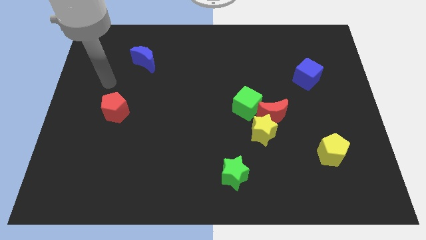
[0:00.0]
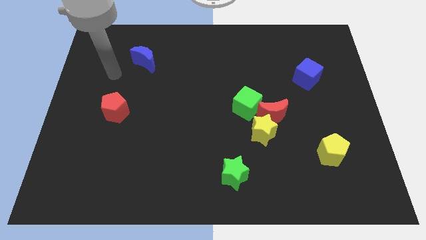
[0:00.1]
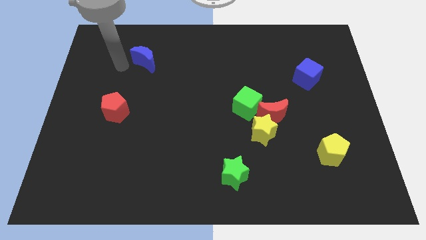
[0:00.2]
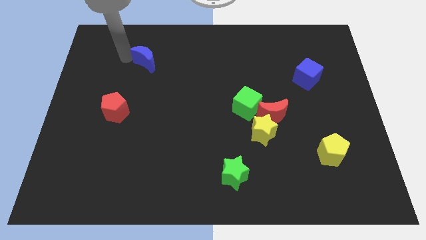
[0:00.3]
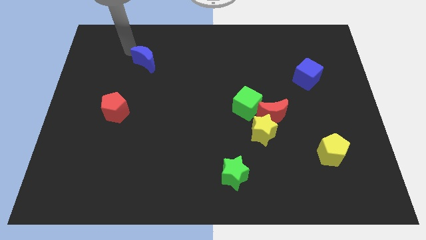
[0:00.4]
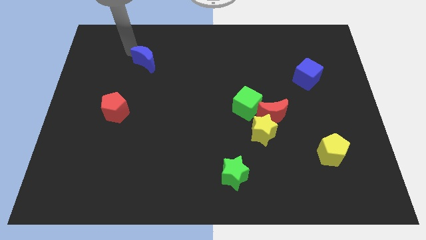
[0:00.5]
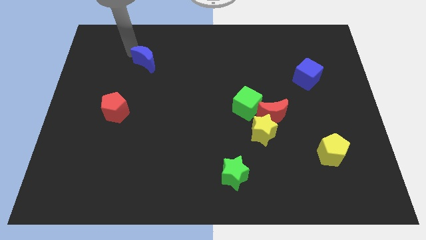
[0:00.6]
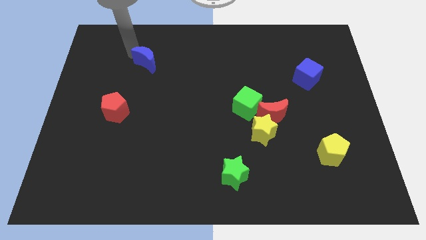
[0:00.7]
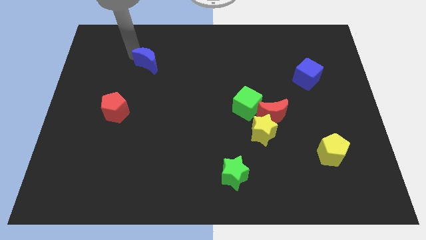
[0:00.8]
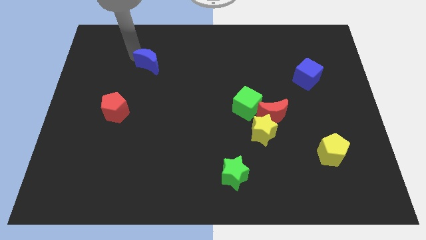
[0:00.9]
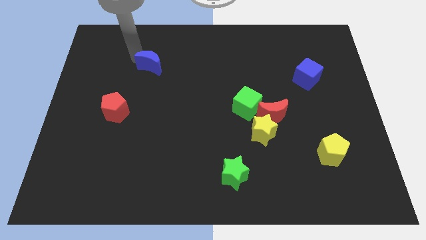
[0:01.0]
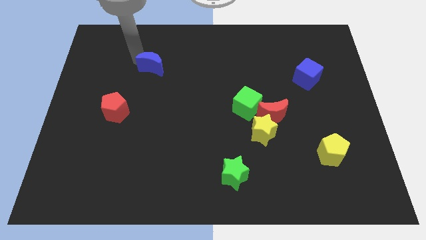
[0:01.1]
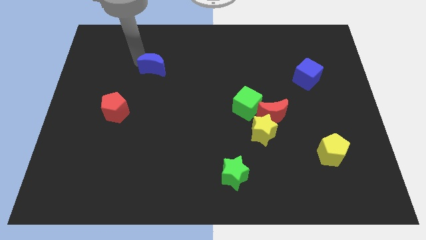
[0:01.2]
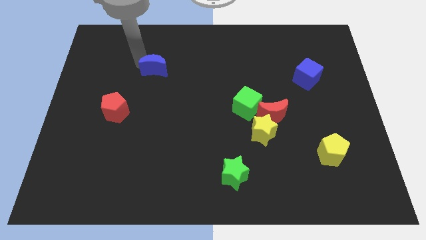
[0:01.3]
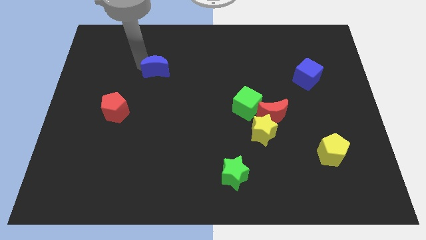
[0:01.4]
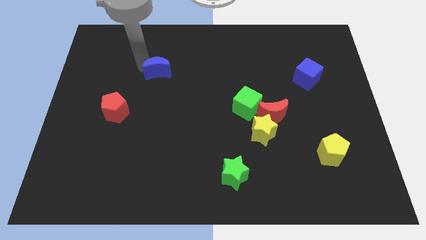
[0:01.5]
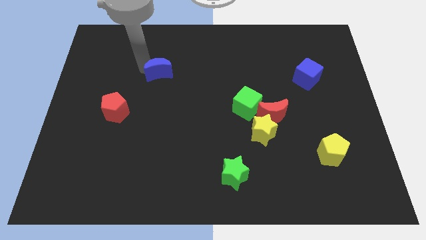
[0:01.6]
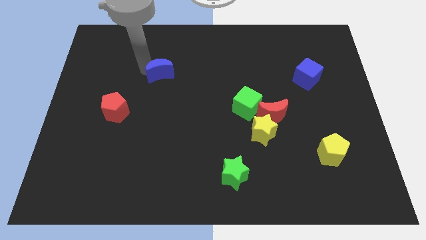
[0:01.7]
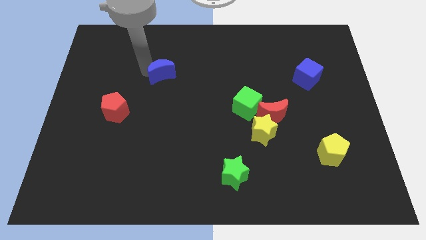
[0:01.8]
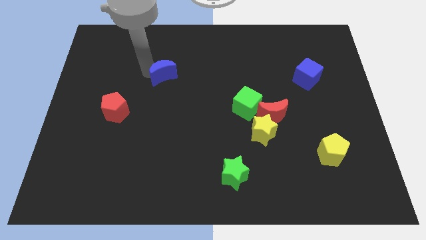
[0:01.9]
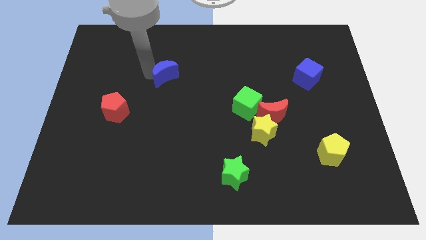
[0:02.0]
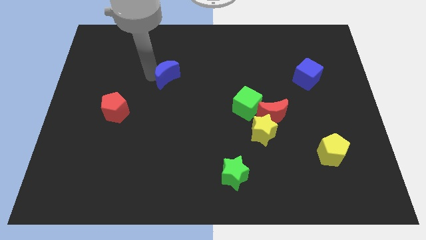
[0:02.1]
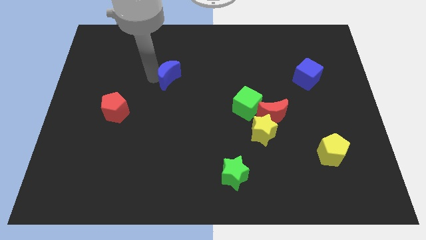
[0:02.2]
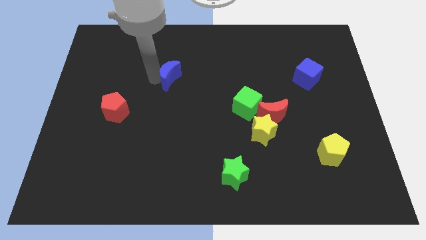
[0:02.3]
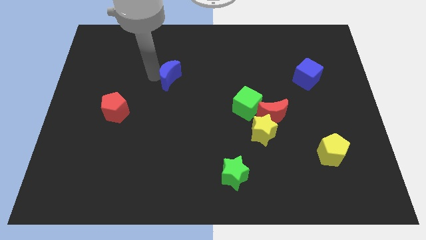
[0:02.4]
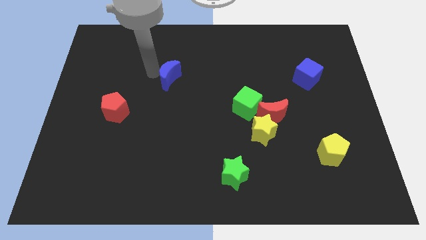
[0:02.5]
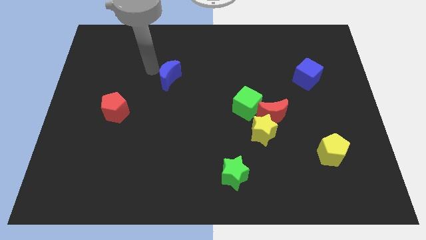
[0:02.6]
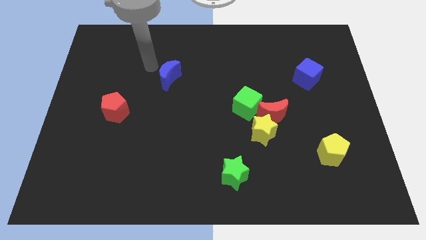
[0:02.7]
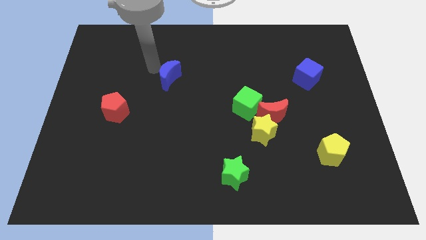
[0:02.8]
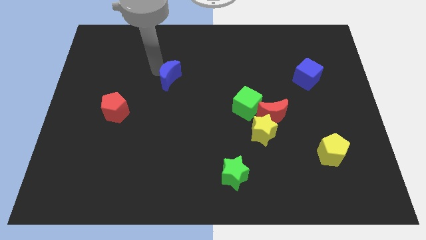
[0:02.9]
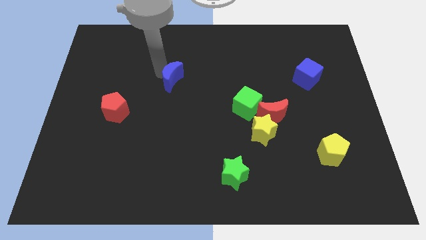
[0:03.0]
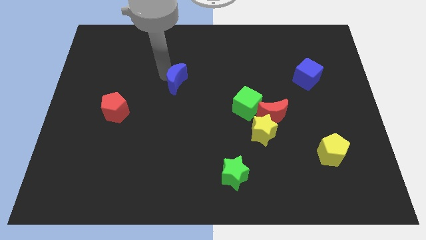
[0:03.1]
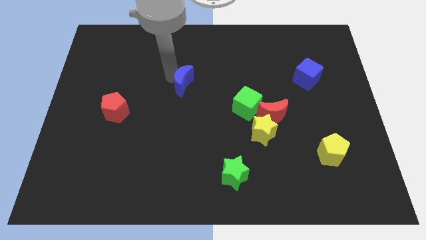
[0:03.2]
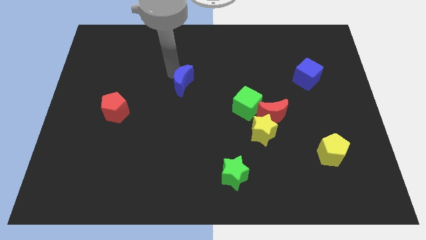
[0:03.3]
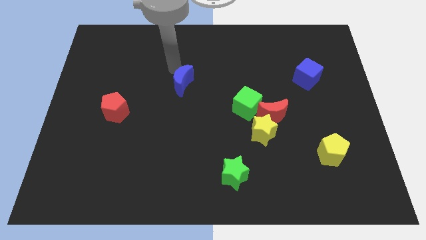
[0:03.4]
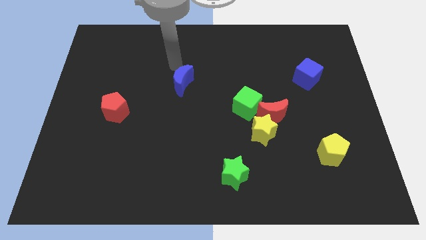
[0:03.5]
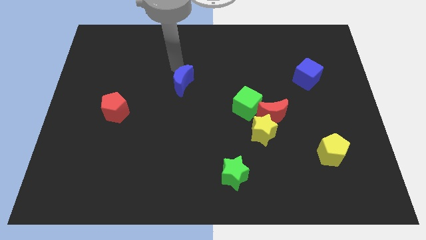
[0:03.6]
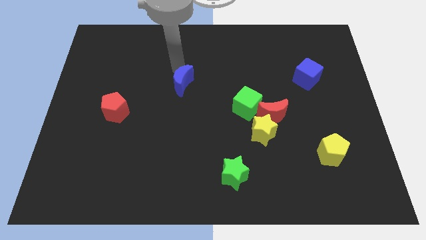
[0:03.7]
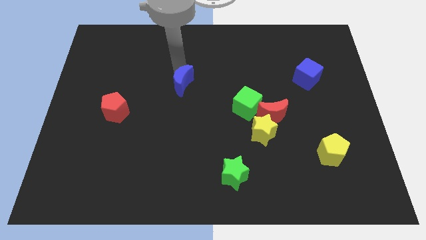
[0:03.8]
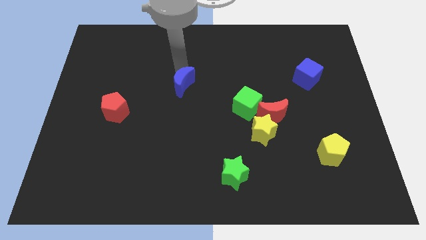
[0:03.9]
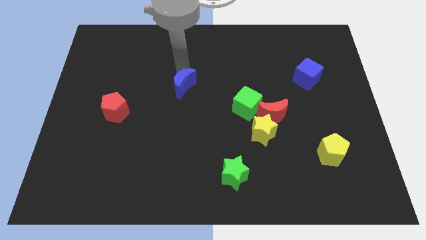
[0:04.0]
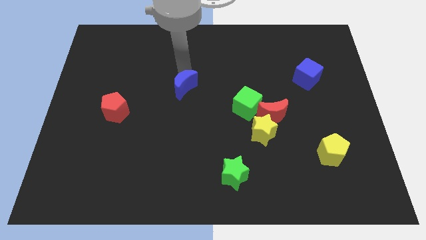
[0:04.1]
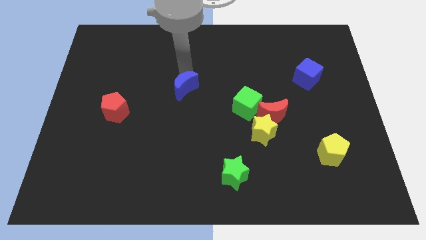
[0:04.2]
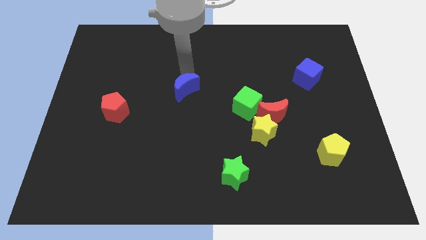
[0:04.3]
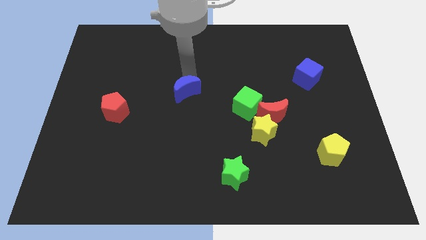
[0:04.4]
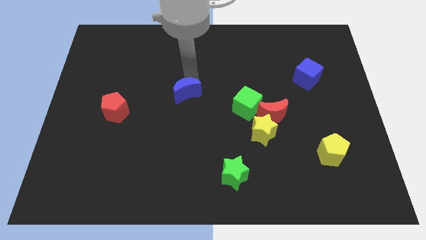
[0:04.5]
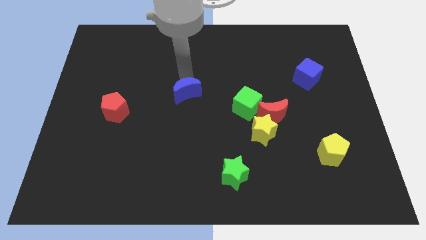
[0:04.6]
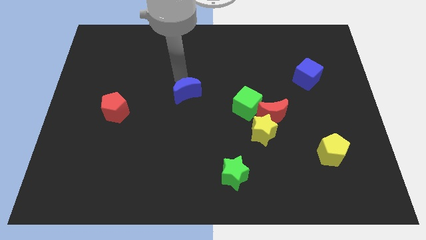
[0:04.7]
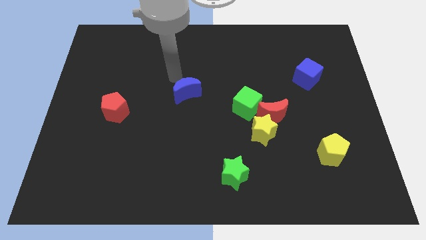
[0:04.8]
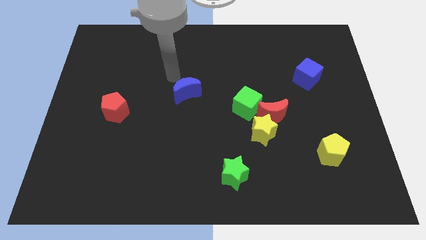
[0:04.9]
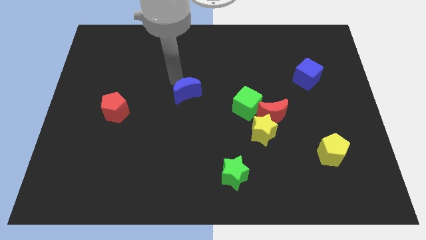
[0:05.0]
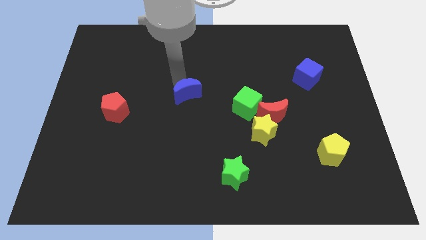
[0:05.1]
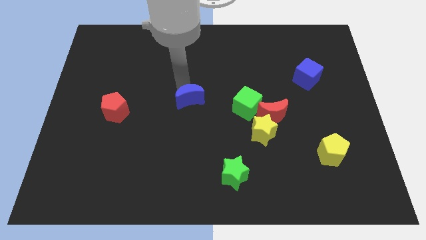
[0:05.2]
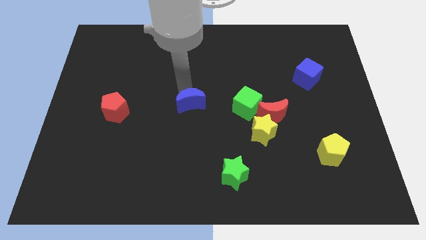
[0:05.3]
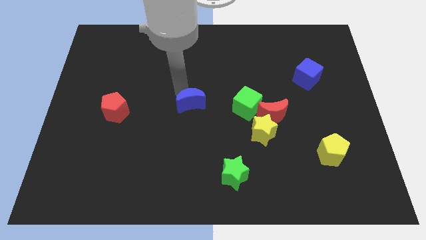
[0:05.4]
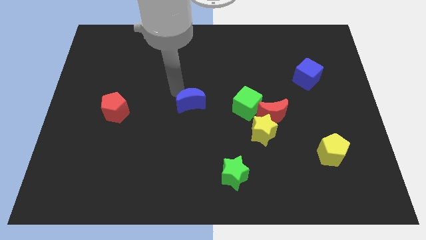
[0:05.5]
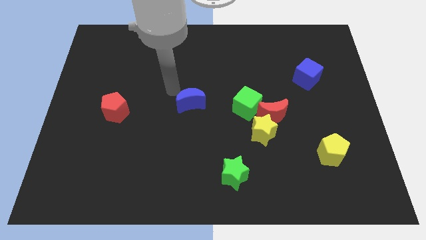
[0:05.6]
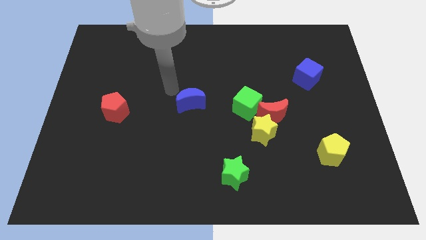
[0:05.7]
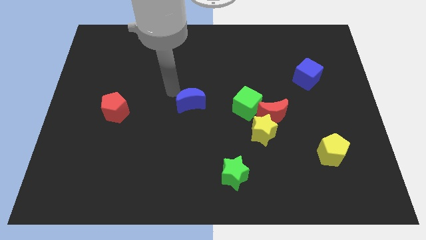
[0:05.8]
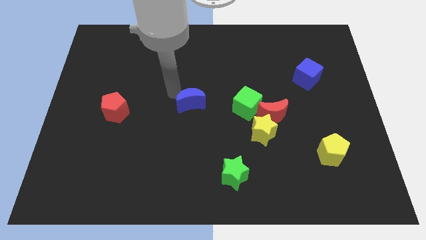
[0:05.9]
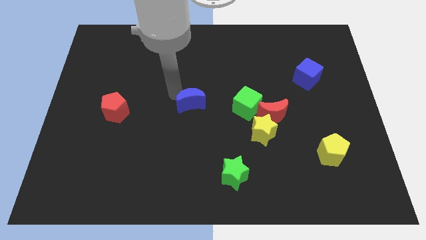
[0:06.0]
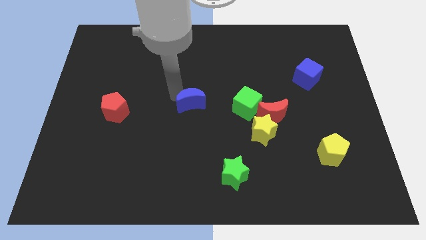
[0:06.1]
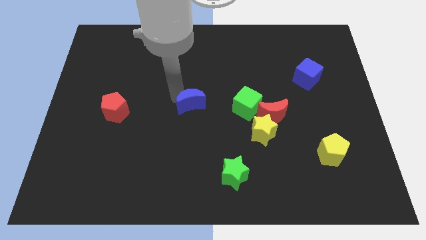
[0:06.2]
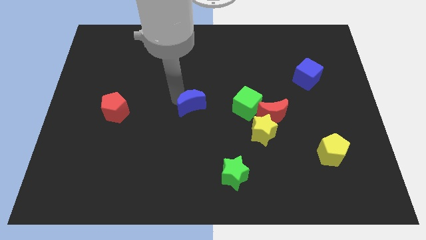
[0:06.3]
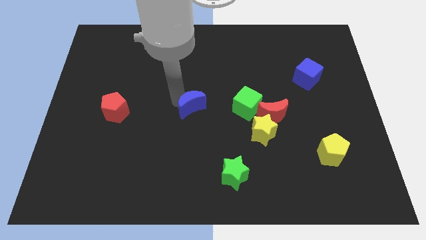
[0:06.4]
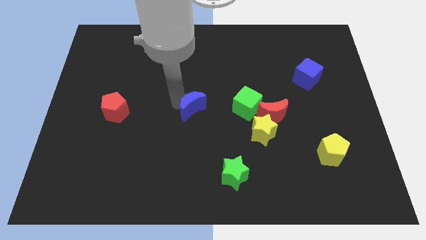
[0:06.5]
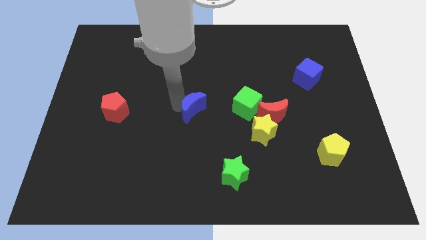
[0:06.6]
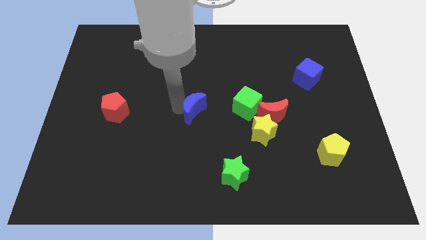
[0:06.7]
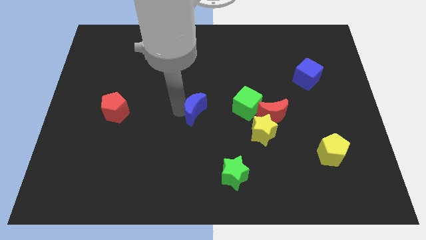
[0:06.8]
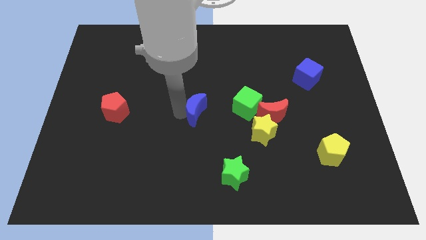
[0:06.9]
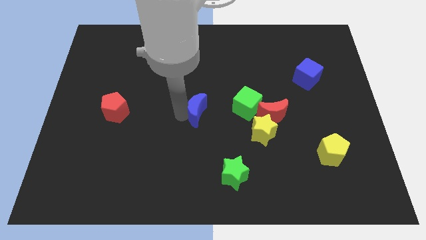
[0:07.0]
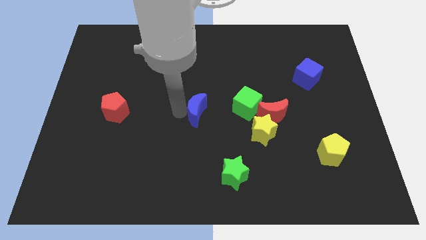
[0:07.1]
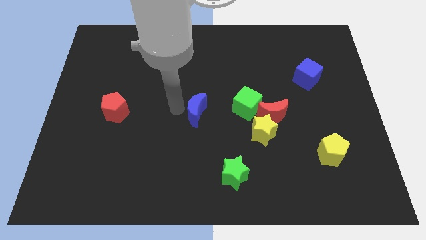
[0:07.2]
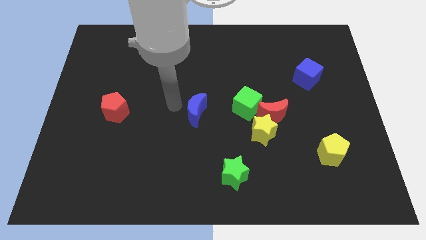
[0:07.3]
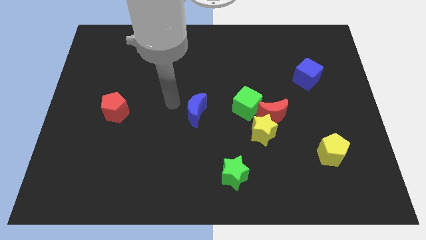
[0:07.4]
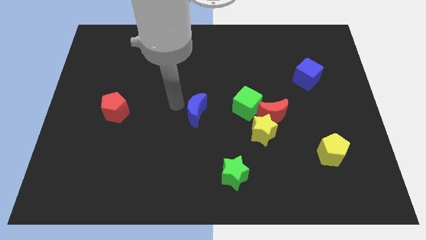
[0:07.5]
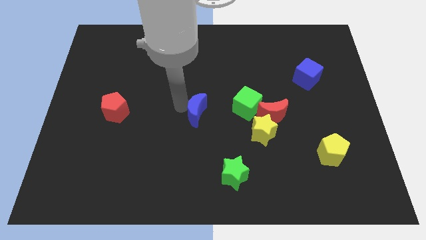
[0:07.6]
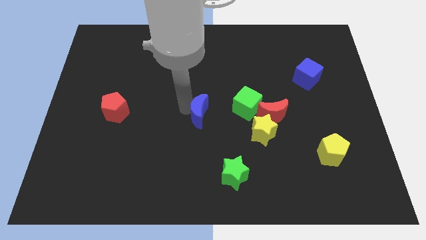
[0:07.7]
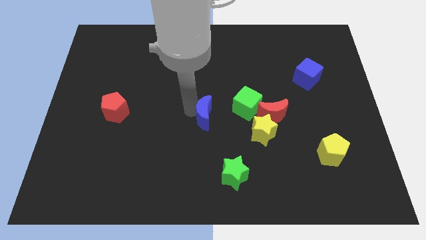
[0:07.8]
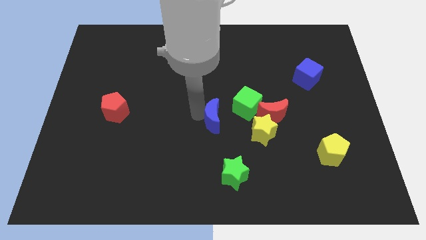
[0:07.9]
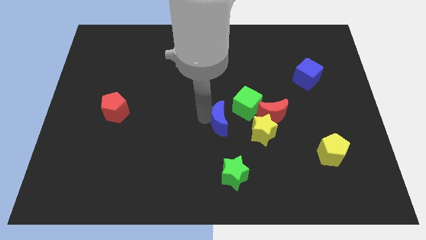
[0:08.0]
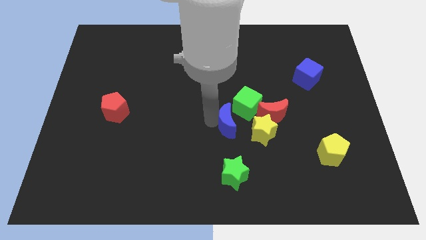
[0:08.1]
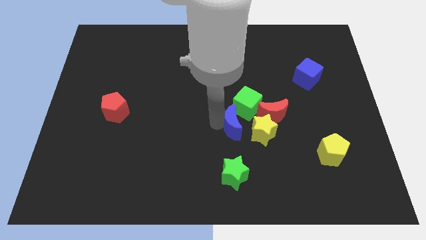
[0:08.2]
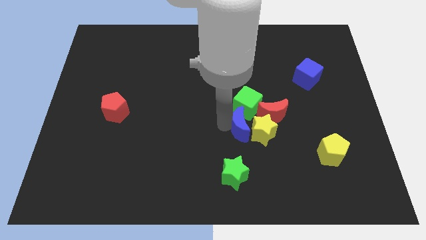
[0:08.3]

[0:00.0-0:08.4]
move the blue moon next to the yellow star
